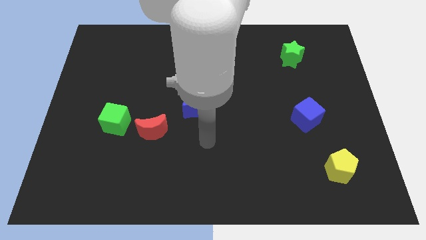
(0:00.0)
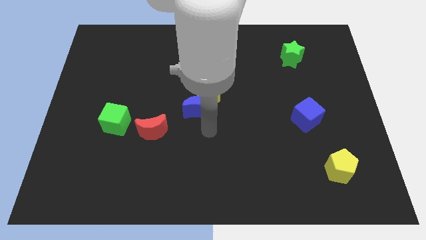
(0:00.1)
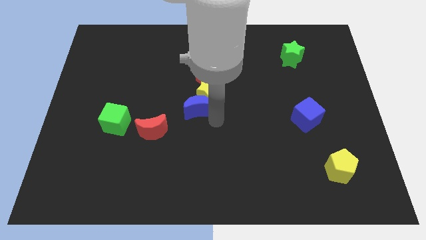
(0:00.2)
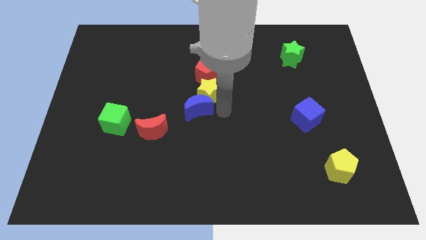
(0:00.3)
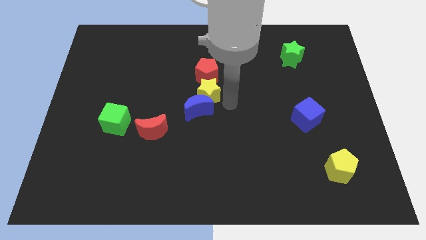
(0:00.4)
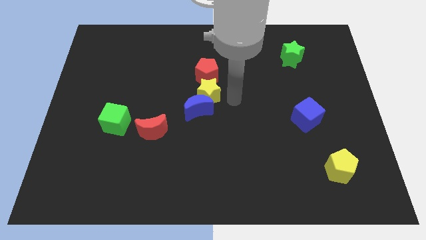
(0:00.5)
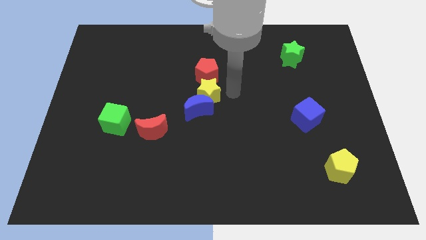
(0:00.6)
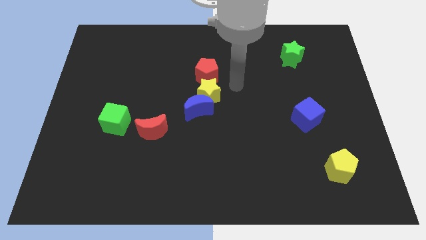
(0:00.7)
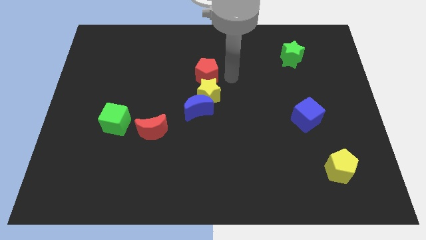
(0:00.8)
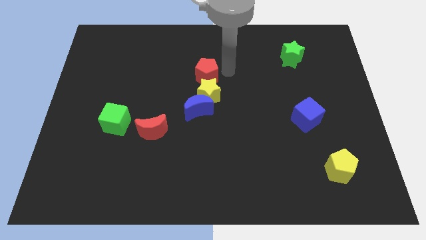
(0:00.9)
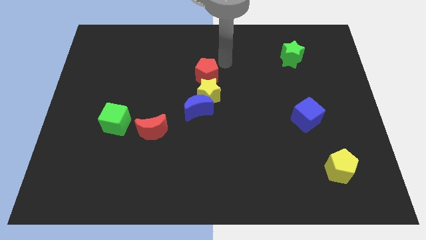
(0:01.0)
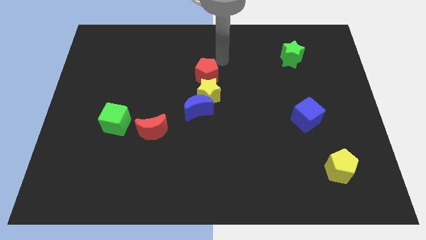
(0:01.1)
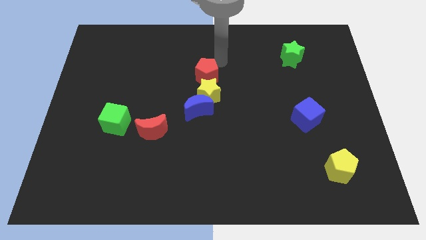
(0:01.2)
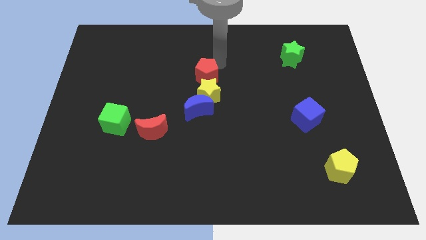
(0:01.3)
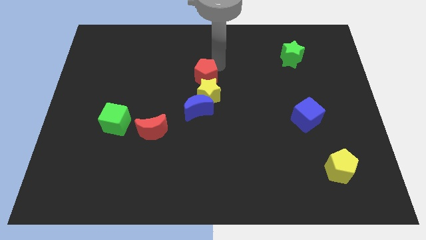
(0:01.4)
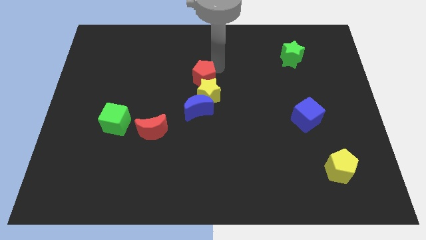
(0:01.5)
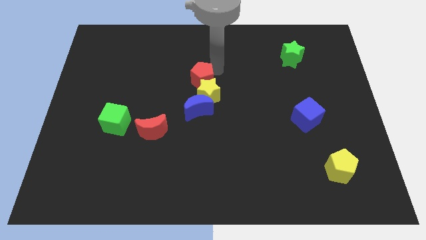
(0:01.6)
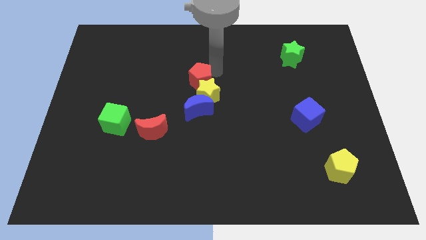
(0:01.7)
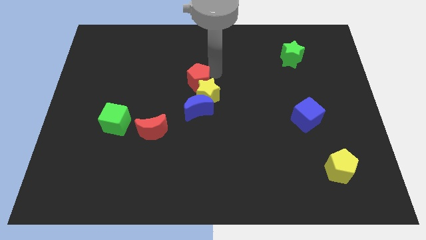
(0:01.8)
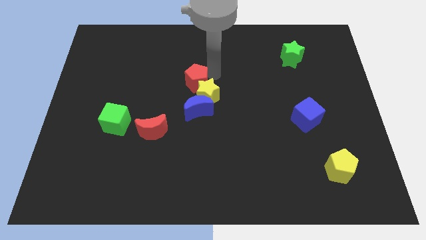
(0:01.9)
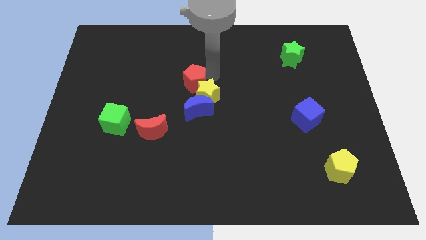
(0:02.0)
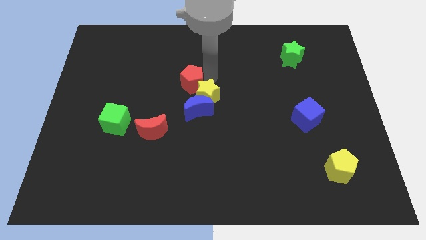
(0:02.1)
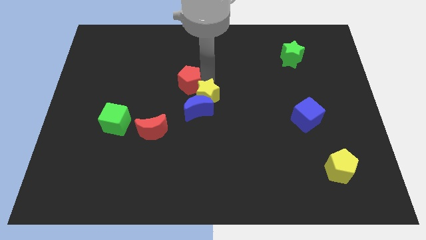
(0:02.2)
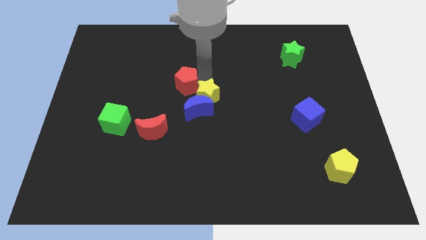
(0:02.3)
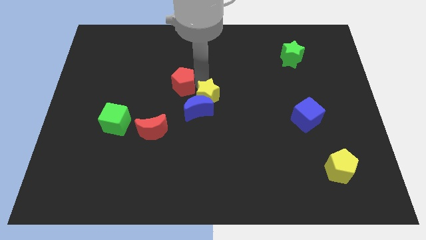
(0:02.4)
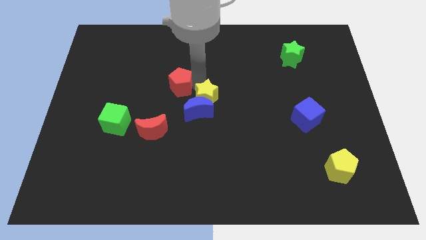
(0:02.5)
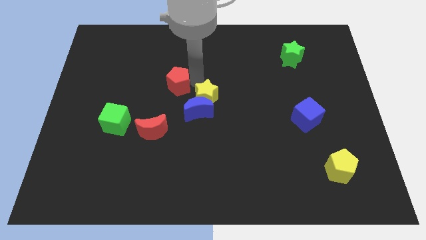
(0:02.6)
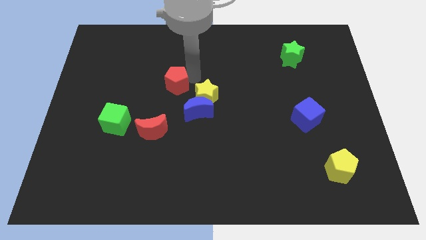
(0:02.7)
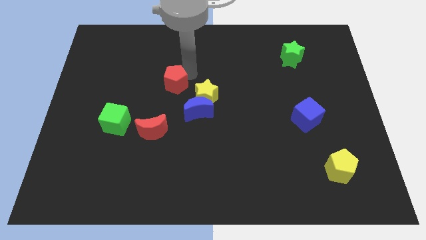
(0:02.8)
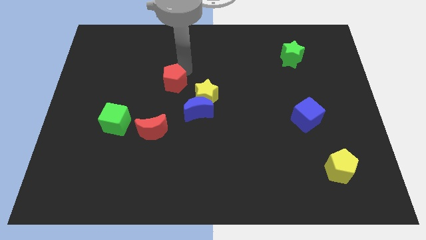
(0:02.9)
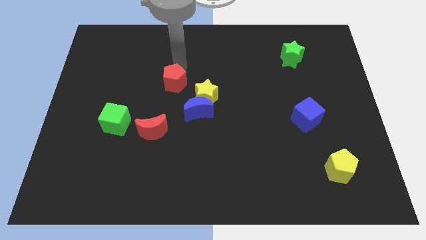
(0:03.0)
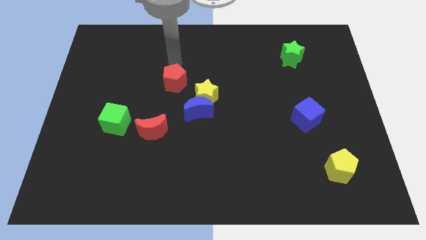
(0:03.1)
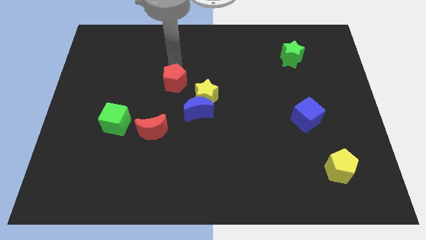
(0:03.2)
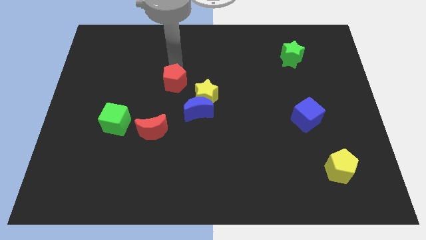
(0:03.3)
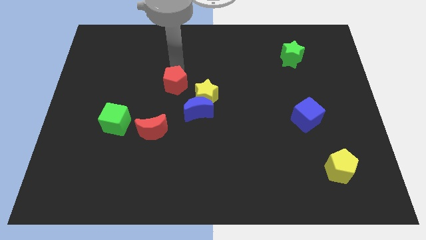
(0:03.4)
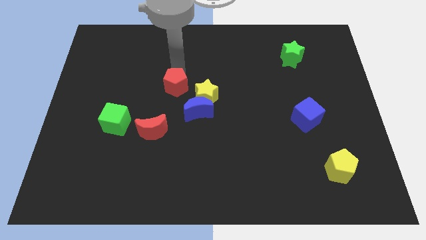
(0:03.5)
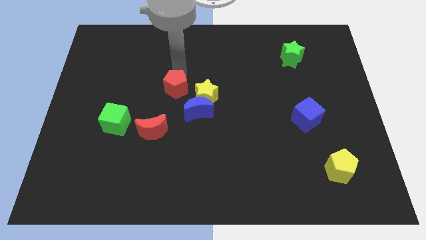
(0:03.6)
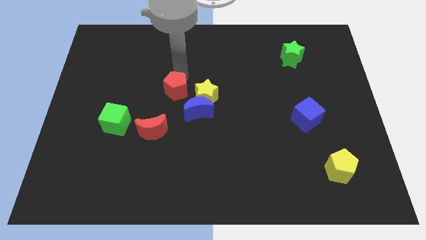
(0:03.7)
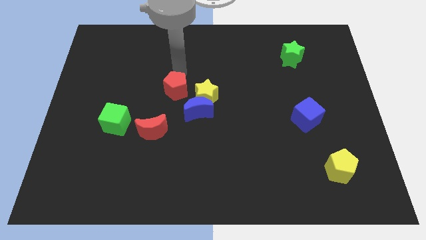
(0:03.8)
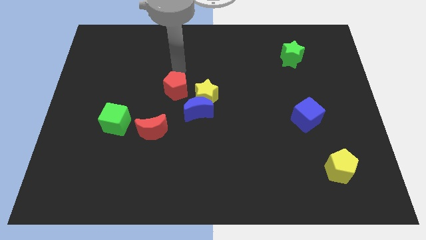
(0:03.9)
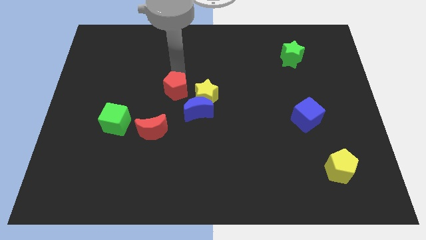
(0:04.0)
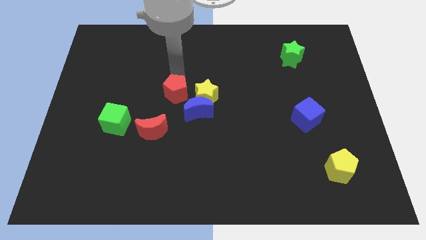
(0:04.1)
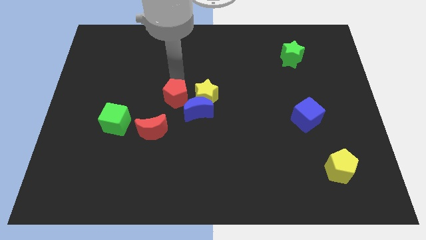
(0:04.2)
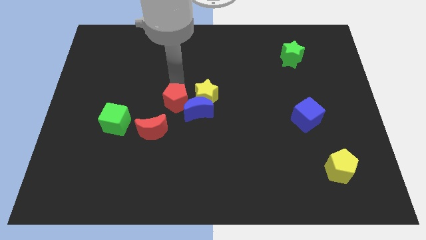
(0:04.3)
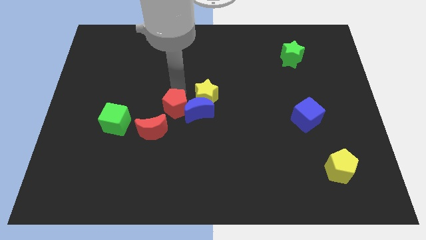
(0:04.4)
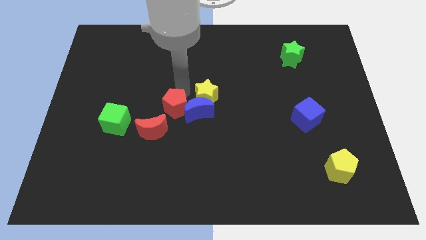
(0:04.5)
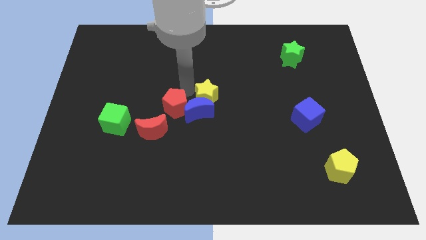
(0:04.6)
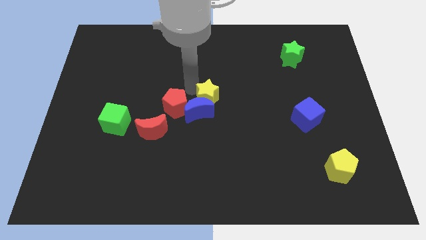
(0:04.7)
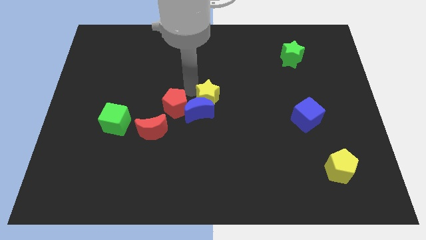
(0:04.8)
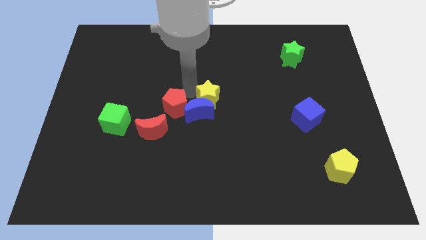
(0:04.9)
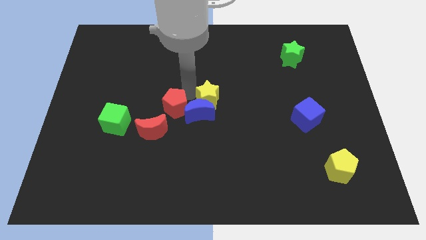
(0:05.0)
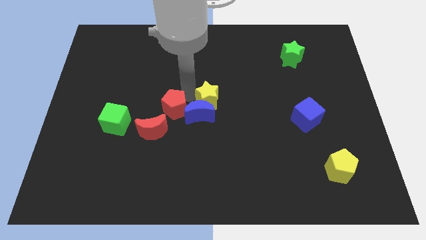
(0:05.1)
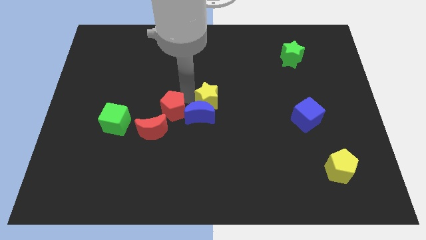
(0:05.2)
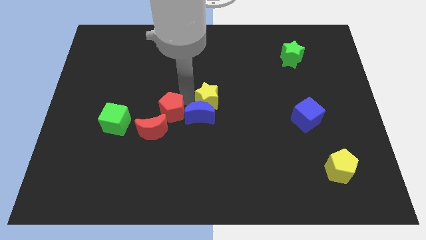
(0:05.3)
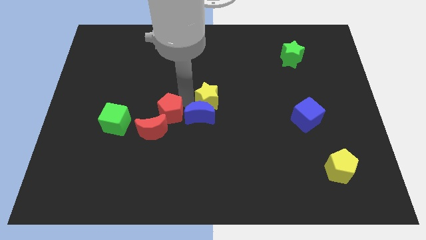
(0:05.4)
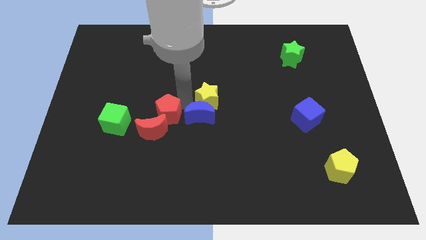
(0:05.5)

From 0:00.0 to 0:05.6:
move the red pentagon next to the red moon

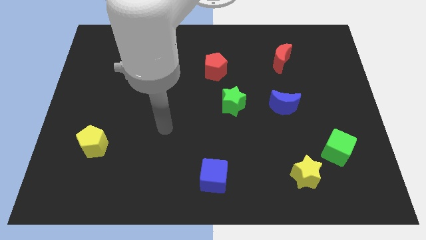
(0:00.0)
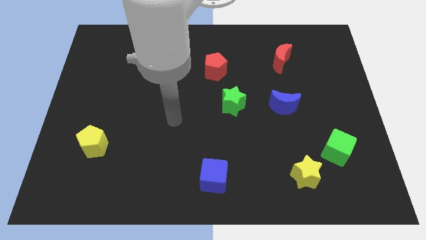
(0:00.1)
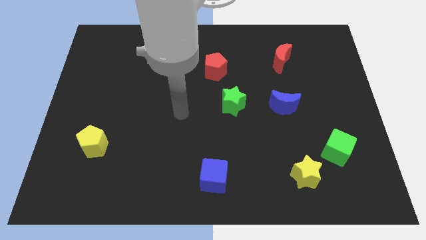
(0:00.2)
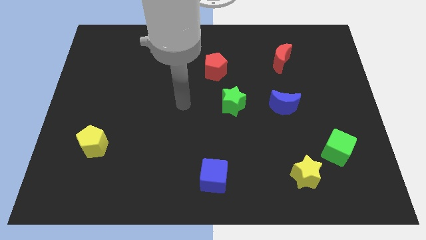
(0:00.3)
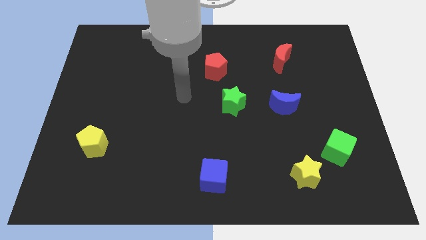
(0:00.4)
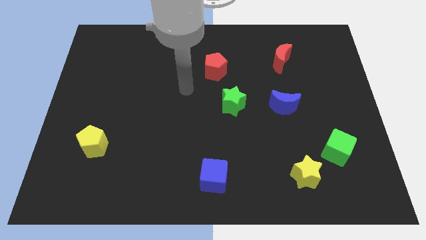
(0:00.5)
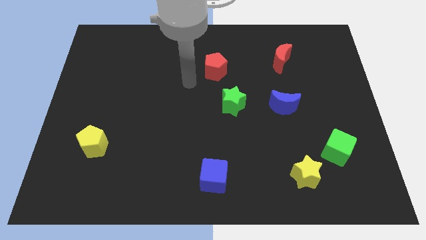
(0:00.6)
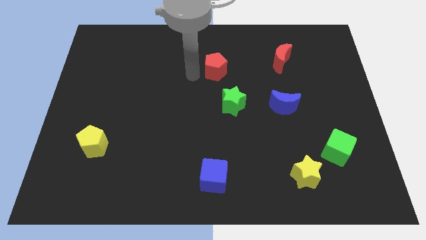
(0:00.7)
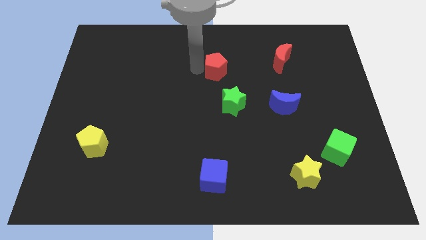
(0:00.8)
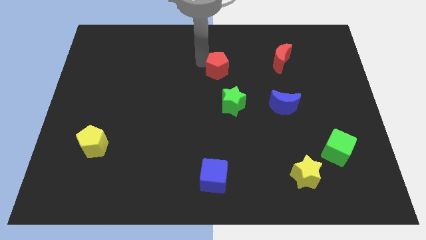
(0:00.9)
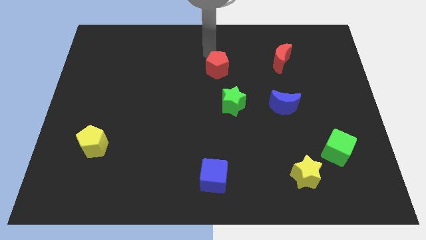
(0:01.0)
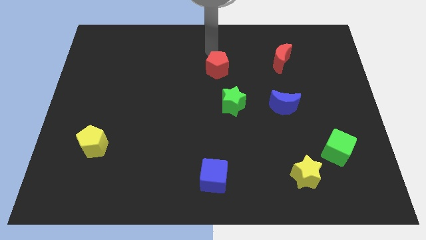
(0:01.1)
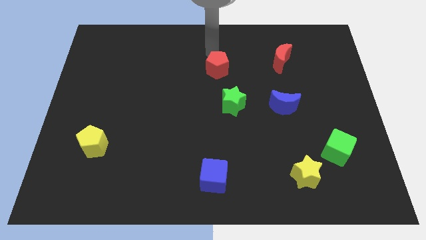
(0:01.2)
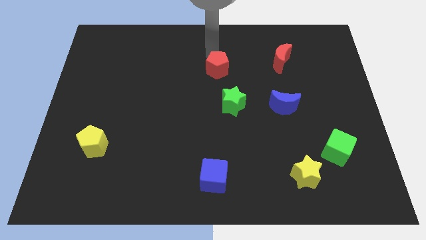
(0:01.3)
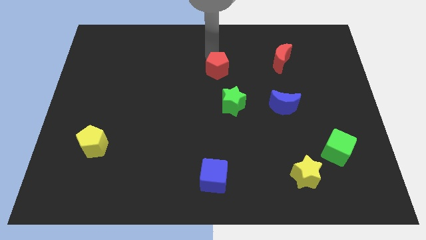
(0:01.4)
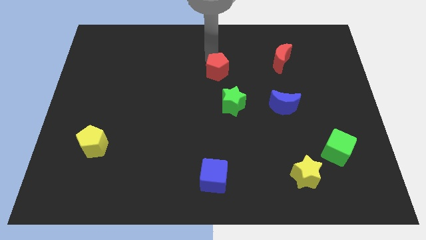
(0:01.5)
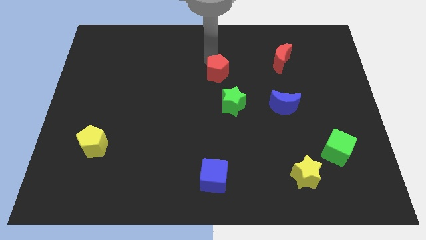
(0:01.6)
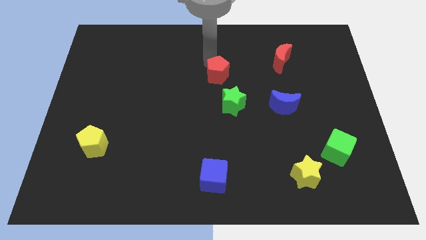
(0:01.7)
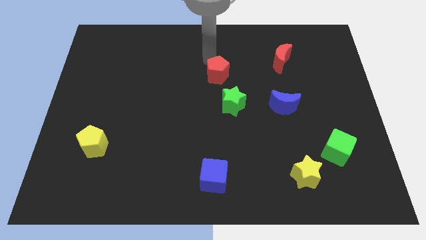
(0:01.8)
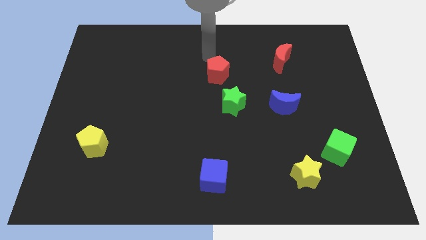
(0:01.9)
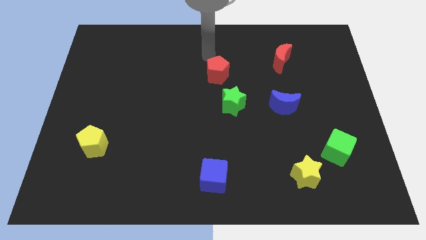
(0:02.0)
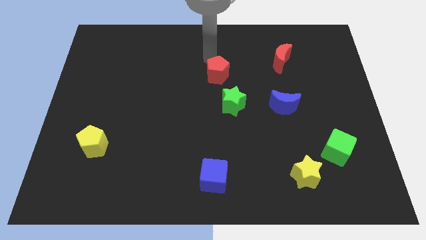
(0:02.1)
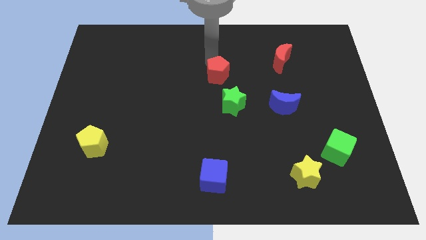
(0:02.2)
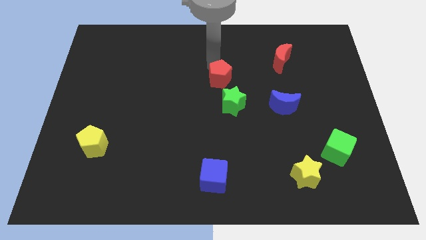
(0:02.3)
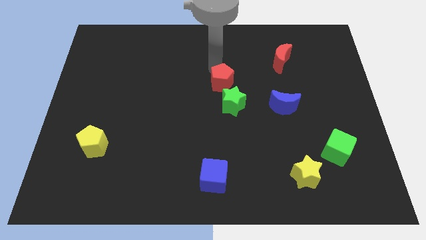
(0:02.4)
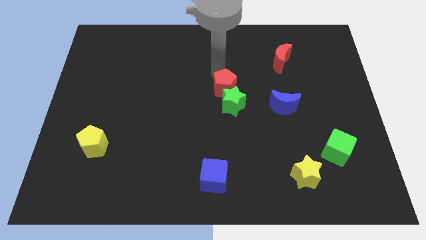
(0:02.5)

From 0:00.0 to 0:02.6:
slide the red pentagon close to the green star

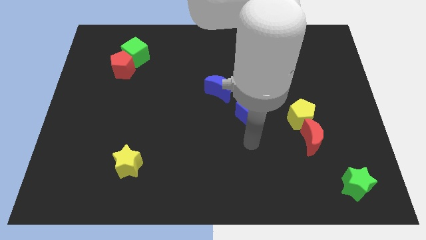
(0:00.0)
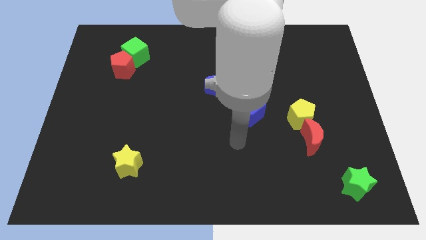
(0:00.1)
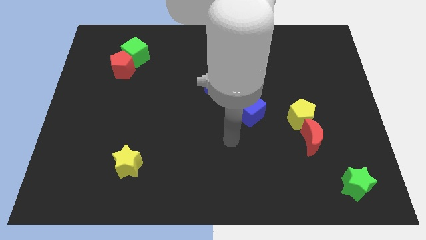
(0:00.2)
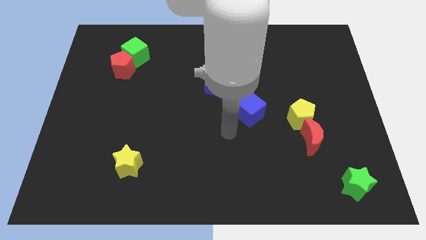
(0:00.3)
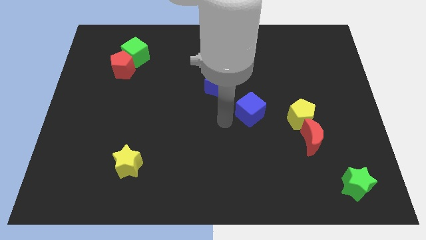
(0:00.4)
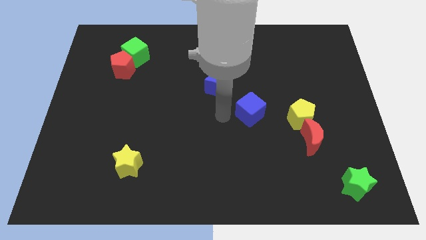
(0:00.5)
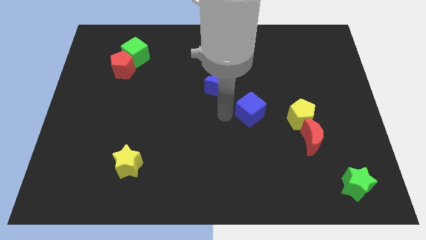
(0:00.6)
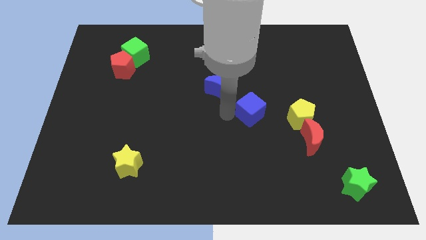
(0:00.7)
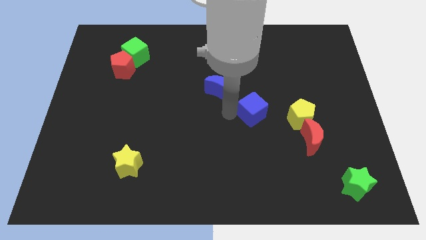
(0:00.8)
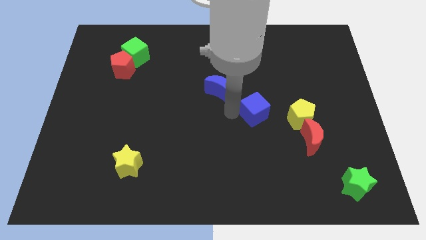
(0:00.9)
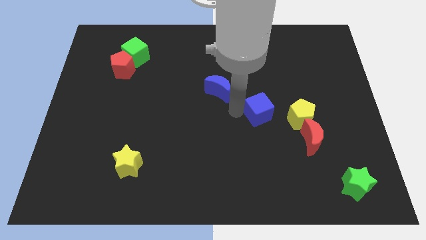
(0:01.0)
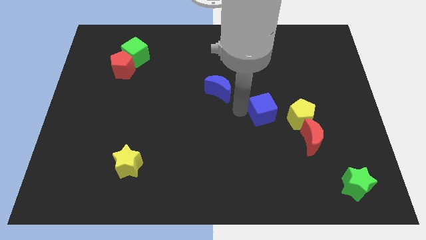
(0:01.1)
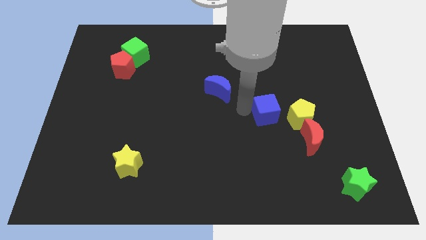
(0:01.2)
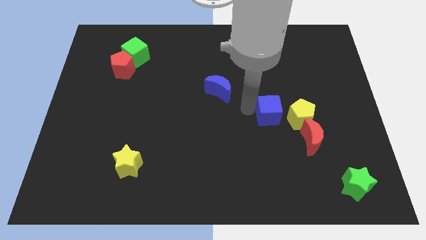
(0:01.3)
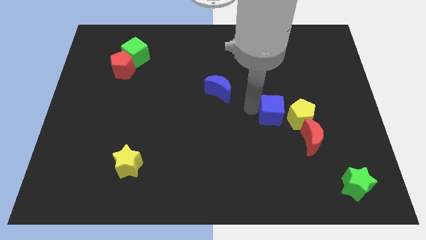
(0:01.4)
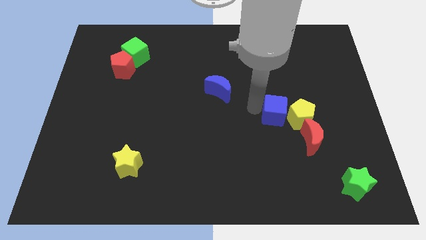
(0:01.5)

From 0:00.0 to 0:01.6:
put the blue cube next to the yellow pentagon
